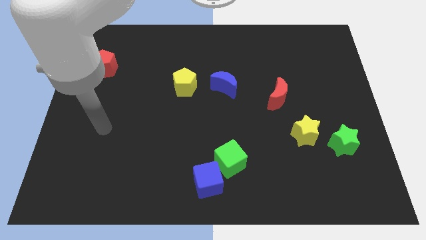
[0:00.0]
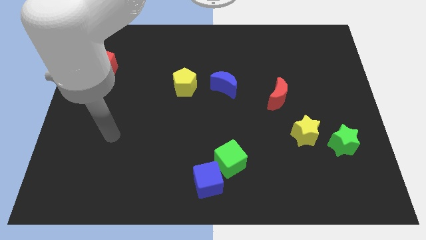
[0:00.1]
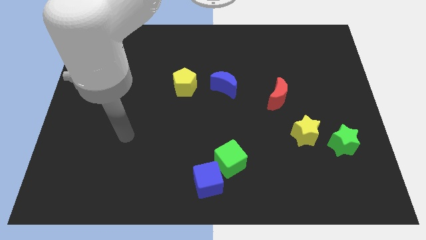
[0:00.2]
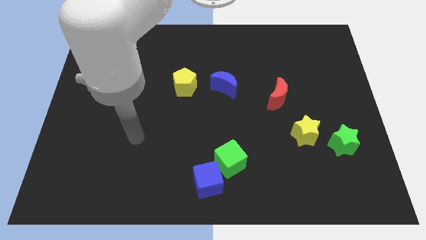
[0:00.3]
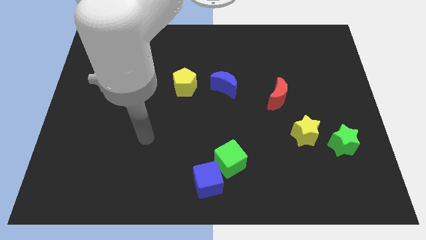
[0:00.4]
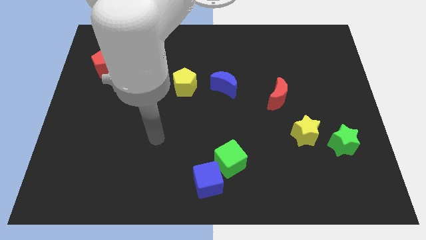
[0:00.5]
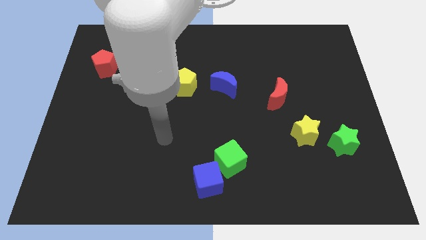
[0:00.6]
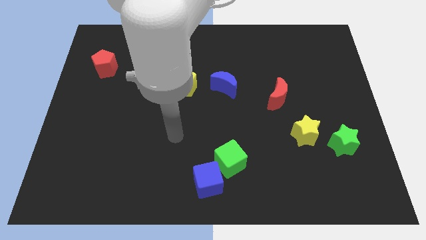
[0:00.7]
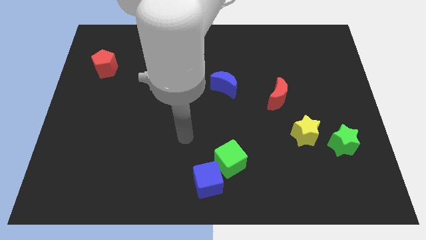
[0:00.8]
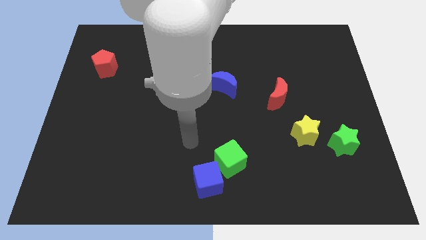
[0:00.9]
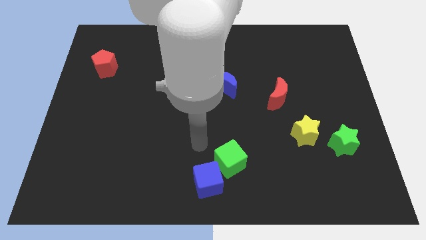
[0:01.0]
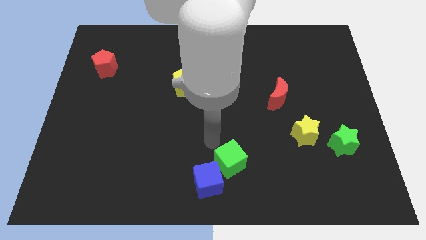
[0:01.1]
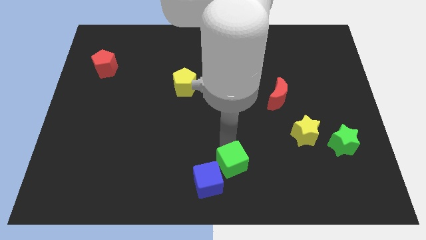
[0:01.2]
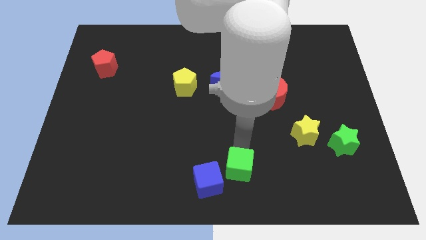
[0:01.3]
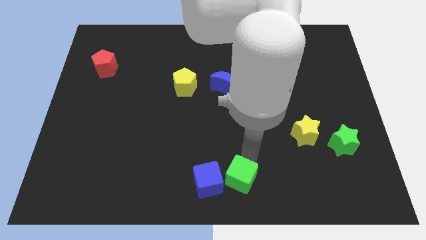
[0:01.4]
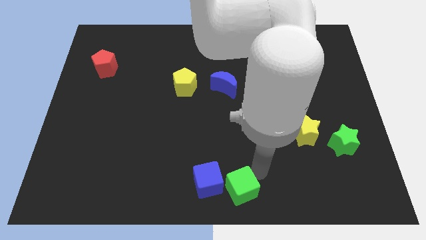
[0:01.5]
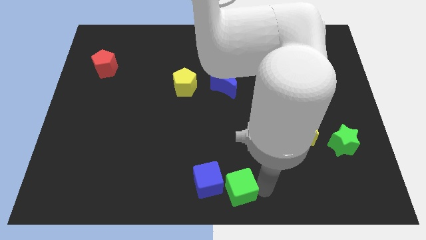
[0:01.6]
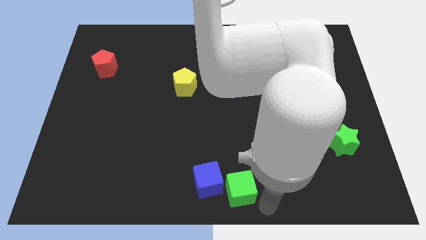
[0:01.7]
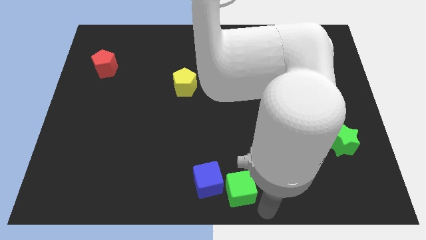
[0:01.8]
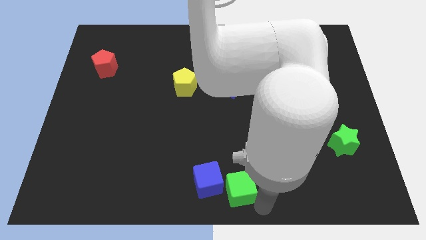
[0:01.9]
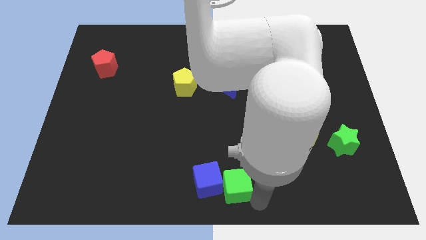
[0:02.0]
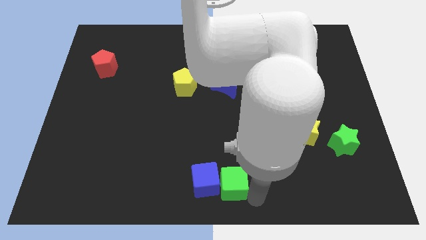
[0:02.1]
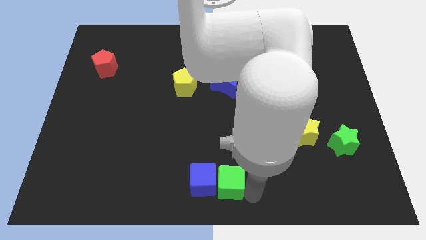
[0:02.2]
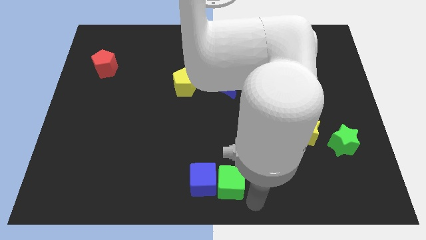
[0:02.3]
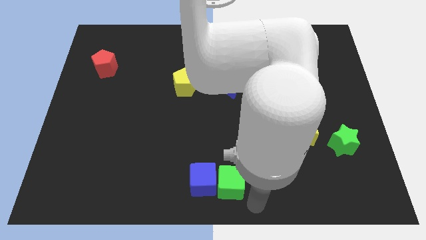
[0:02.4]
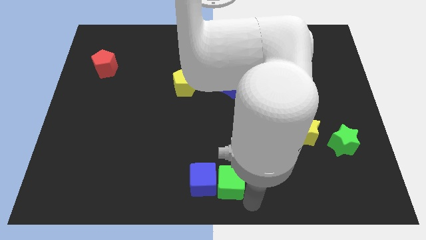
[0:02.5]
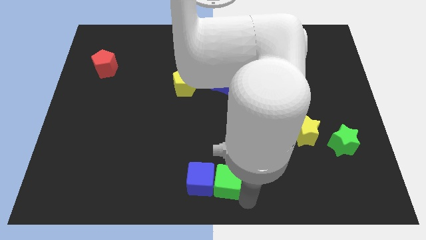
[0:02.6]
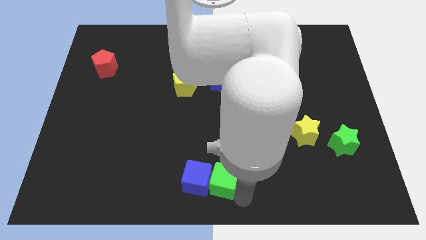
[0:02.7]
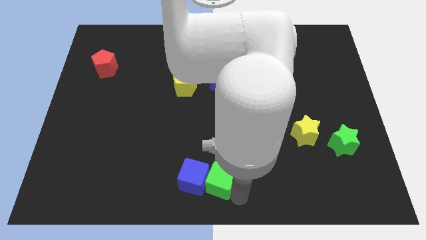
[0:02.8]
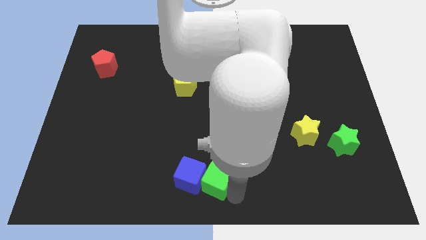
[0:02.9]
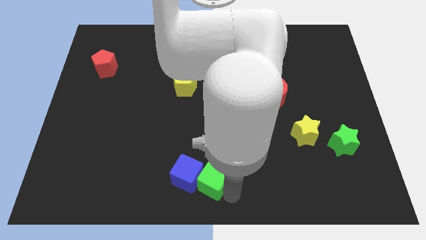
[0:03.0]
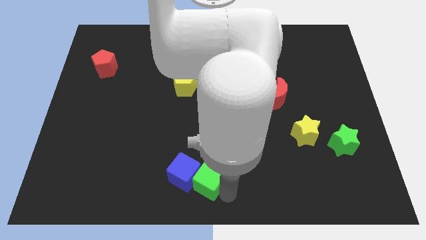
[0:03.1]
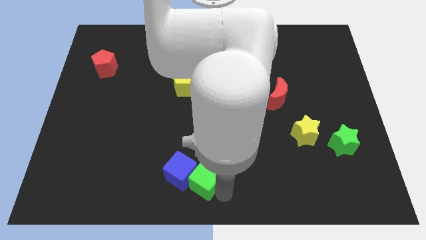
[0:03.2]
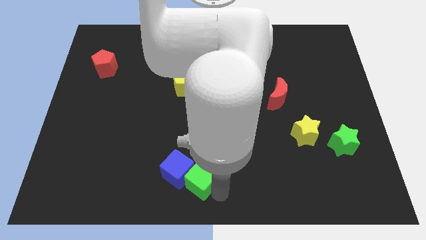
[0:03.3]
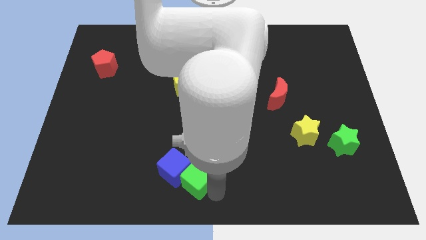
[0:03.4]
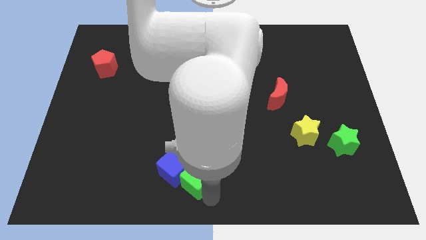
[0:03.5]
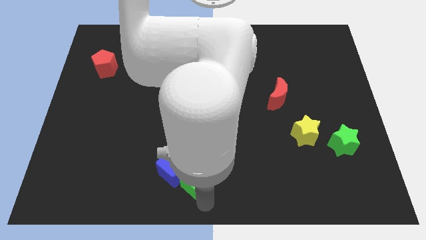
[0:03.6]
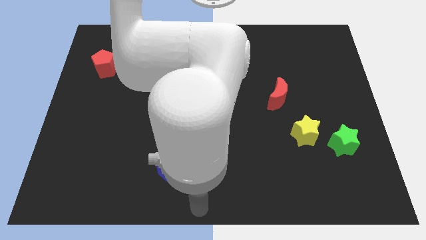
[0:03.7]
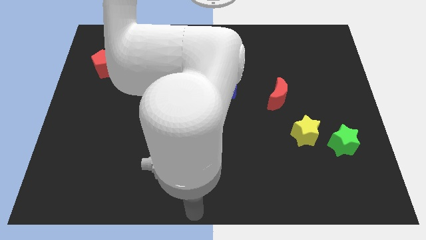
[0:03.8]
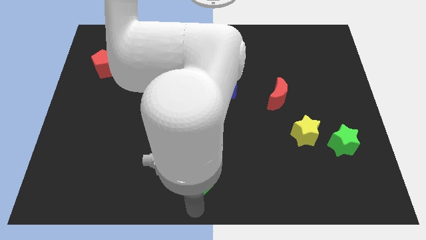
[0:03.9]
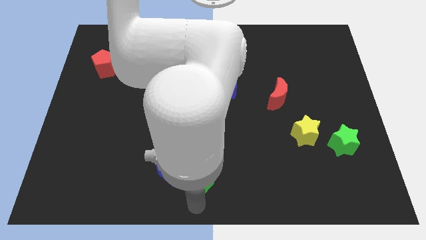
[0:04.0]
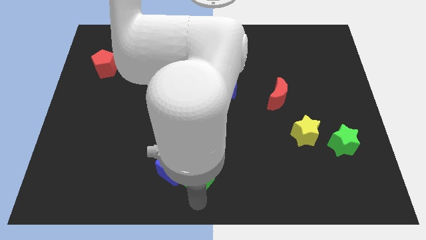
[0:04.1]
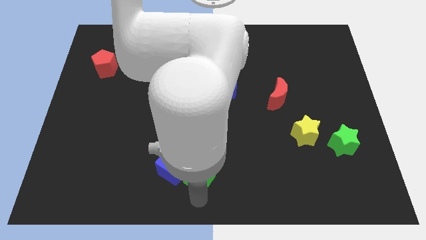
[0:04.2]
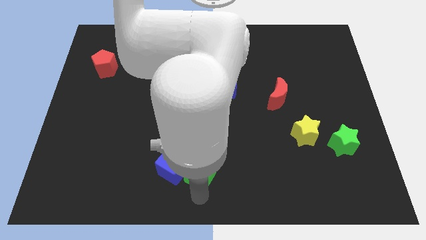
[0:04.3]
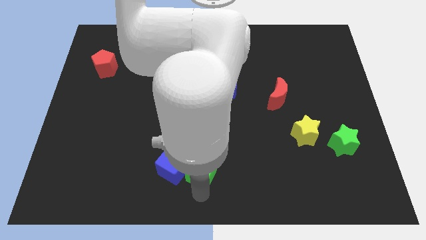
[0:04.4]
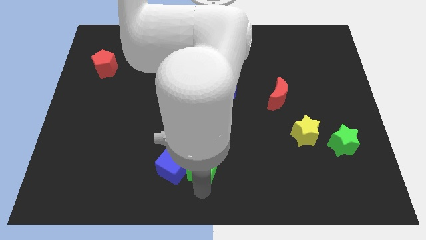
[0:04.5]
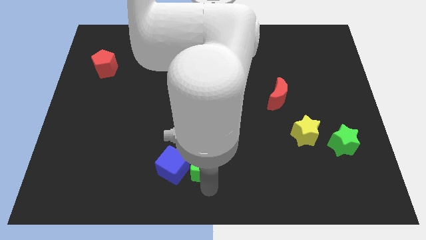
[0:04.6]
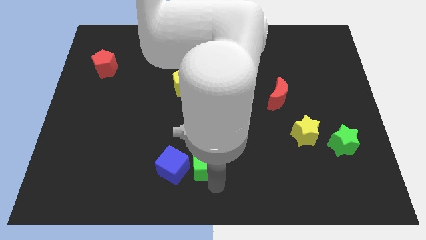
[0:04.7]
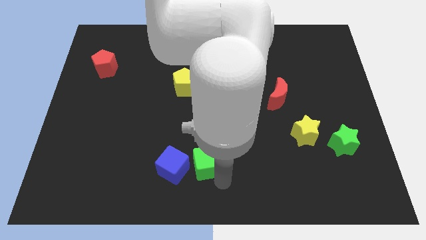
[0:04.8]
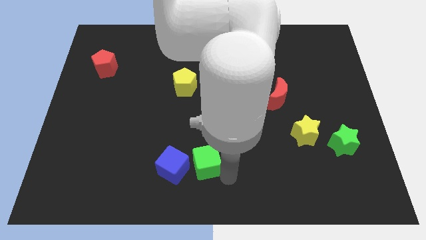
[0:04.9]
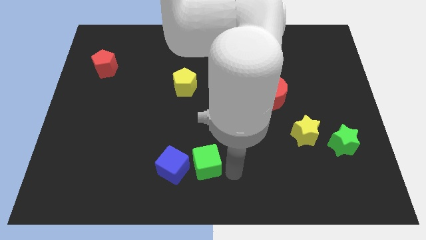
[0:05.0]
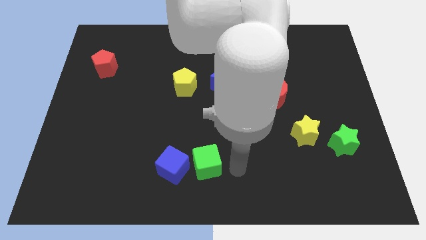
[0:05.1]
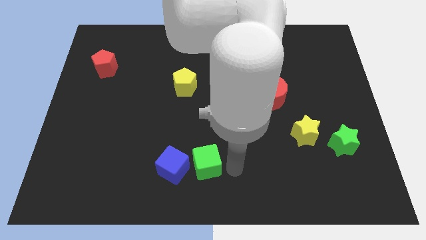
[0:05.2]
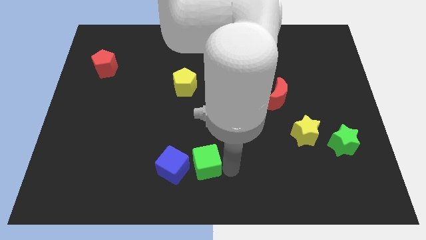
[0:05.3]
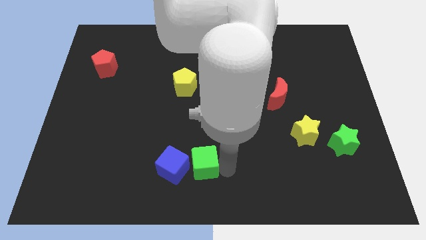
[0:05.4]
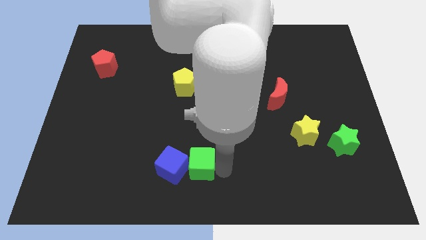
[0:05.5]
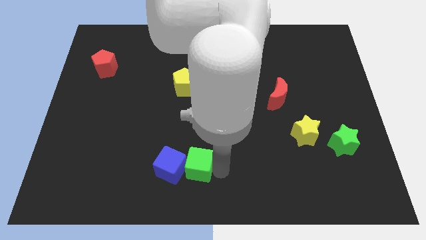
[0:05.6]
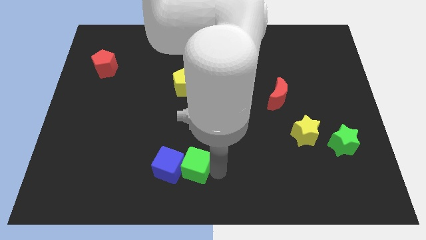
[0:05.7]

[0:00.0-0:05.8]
push the green cube left somewhat

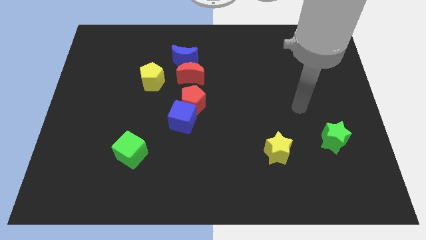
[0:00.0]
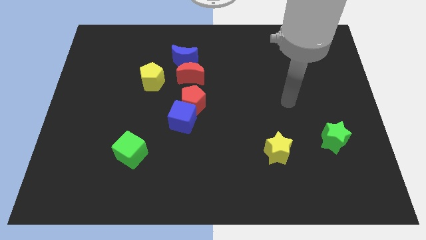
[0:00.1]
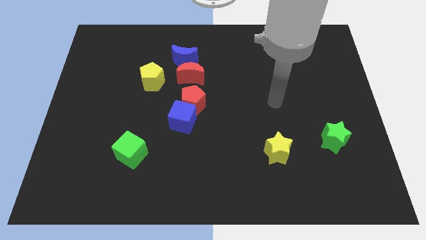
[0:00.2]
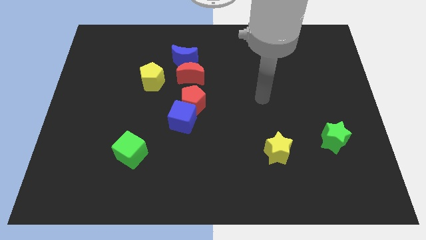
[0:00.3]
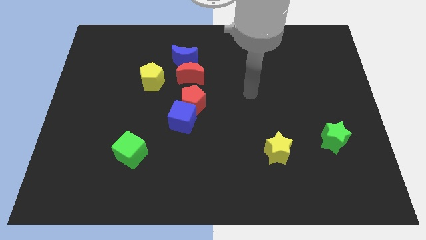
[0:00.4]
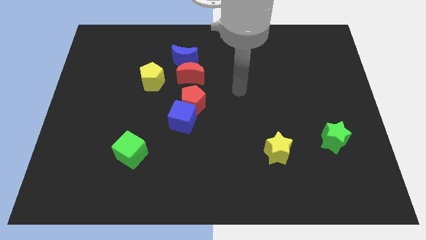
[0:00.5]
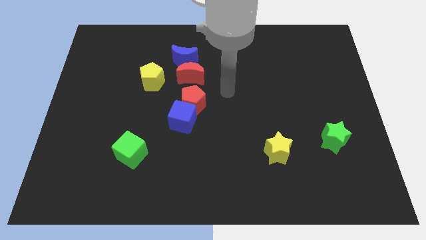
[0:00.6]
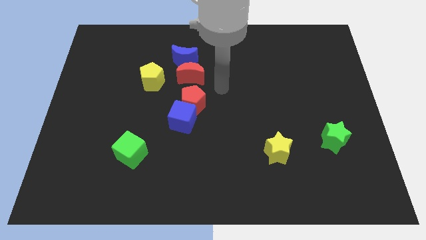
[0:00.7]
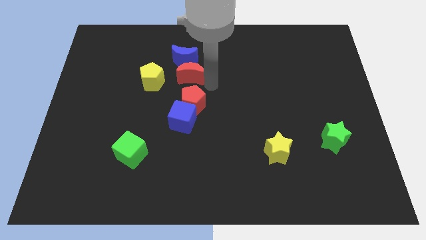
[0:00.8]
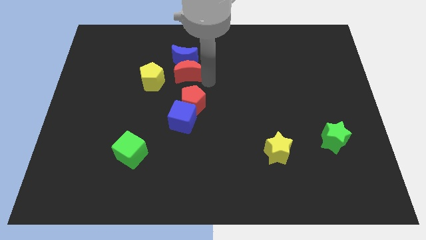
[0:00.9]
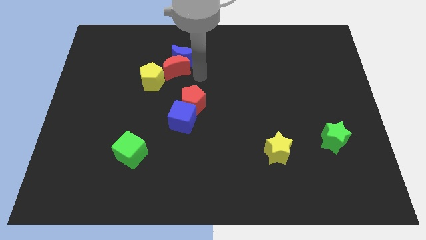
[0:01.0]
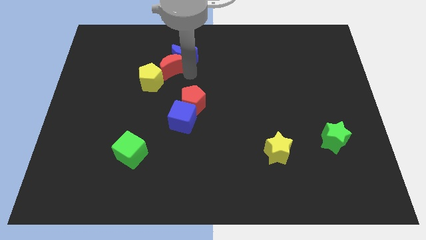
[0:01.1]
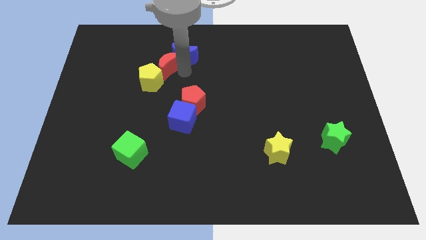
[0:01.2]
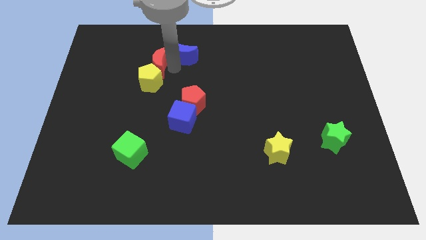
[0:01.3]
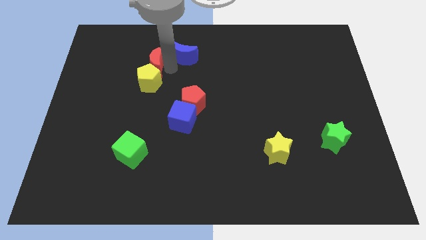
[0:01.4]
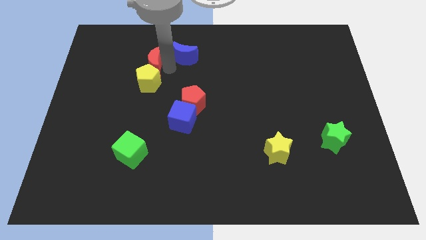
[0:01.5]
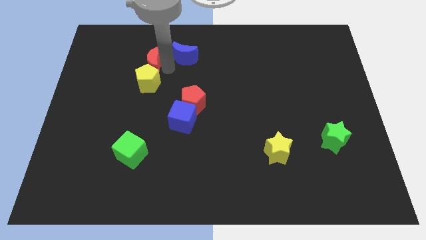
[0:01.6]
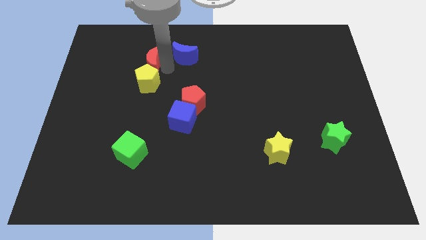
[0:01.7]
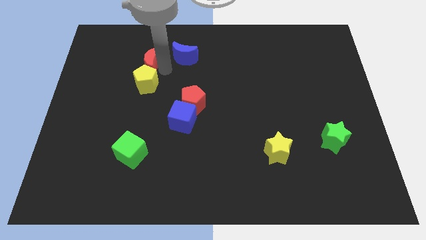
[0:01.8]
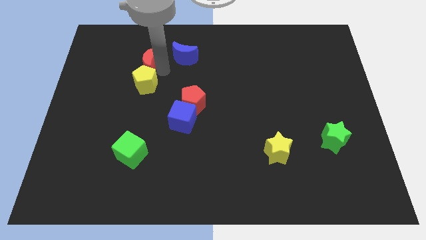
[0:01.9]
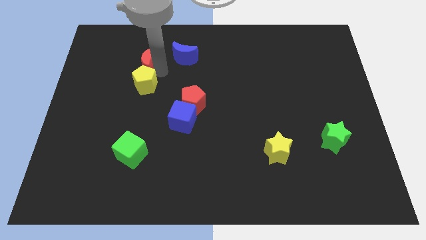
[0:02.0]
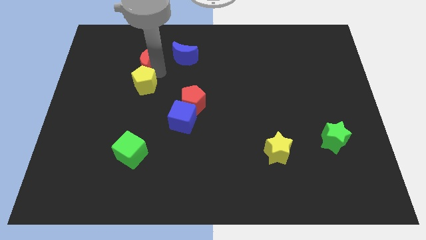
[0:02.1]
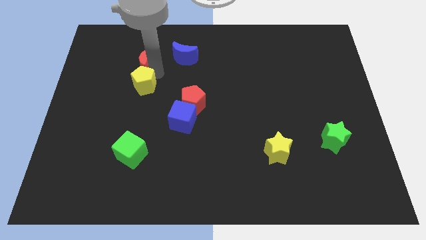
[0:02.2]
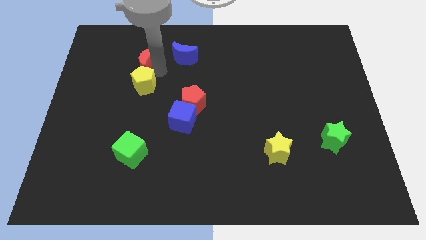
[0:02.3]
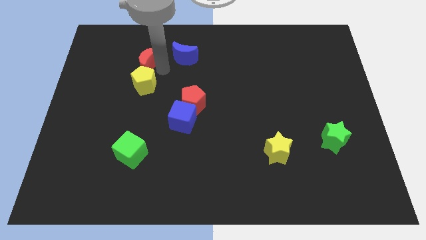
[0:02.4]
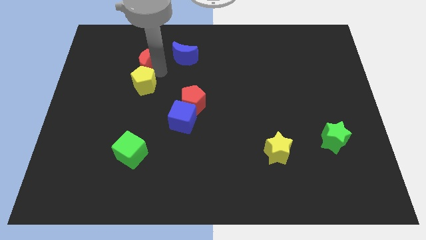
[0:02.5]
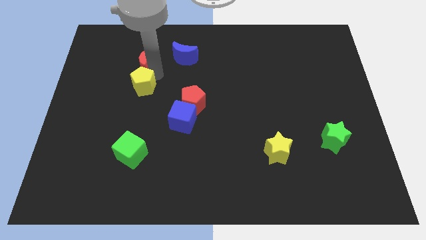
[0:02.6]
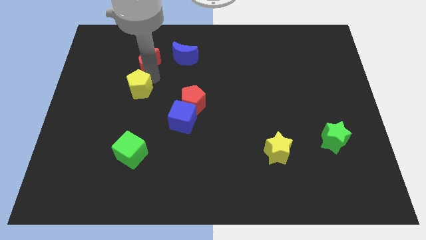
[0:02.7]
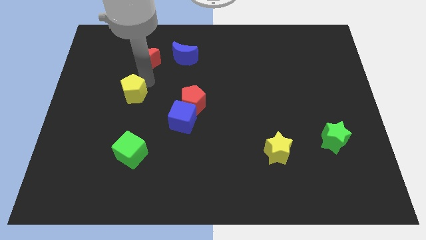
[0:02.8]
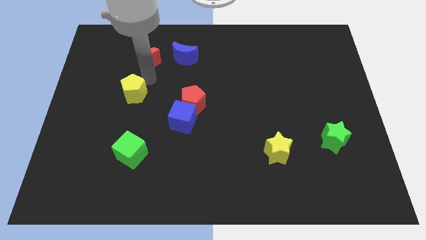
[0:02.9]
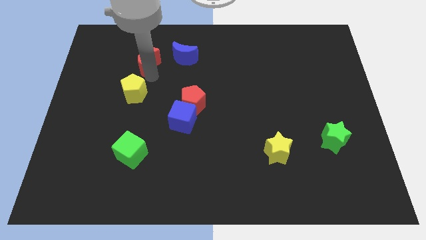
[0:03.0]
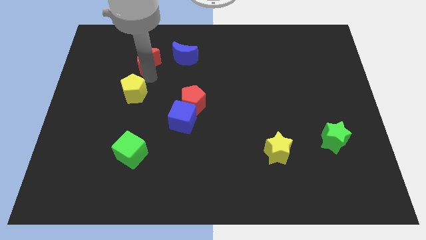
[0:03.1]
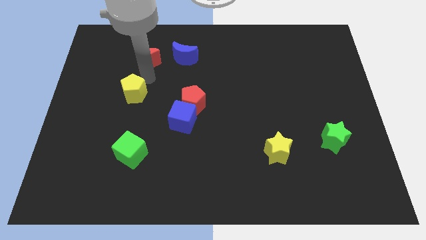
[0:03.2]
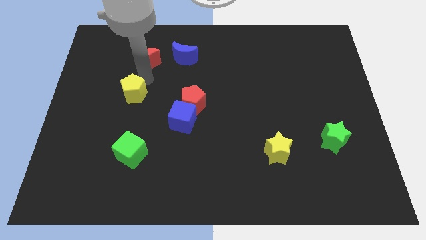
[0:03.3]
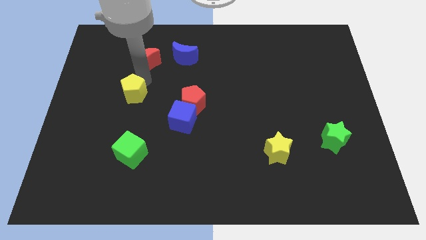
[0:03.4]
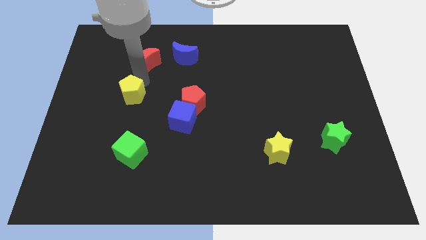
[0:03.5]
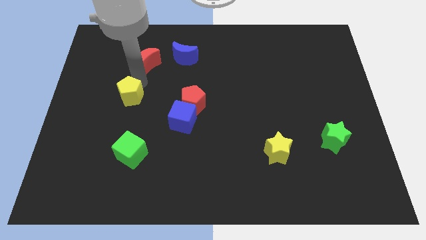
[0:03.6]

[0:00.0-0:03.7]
slightly slide the yellow pentagon down and left
